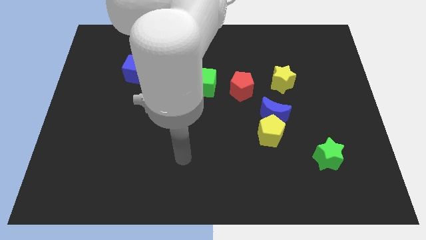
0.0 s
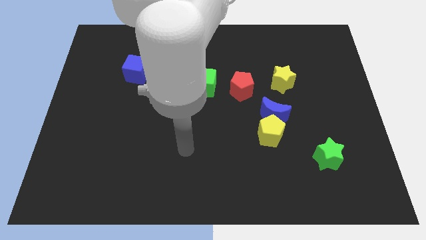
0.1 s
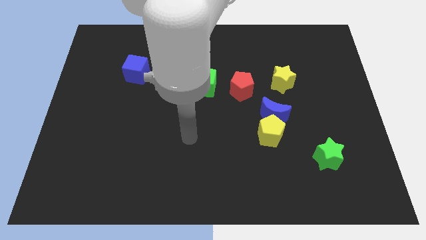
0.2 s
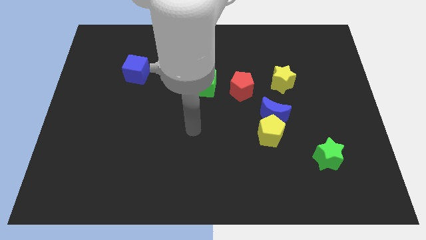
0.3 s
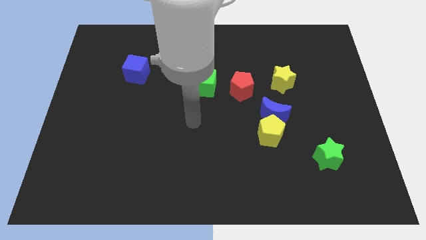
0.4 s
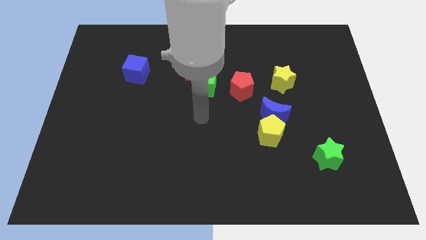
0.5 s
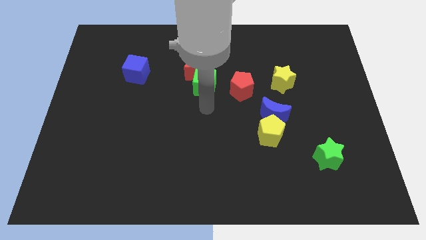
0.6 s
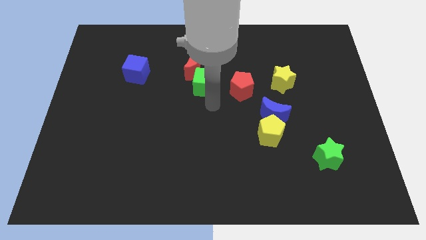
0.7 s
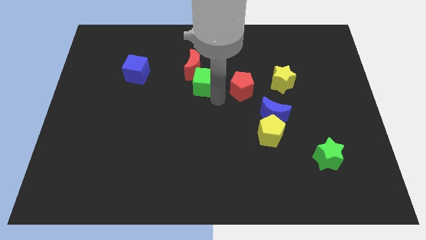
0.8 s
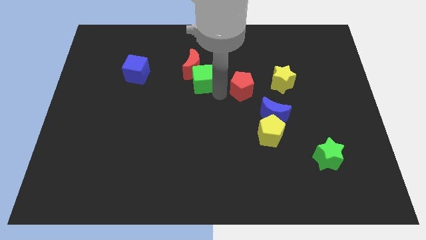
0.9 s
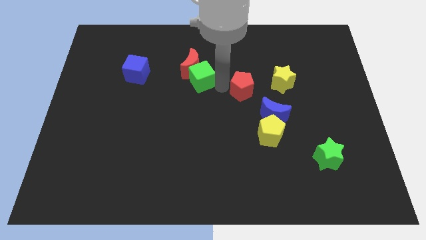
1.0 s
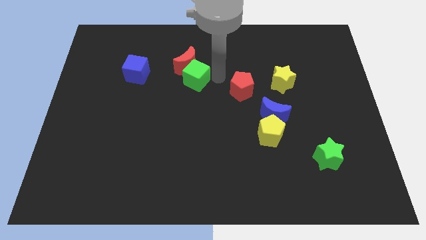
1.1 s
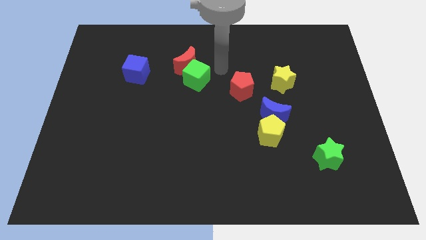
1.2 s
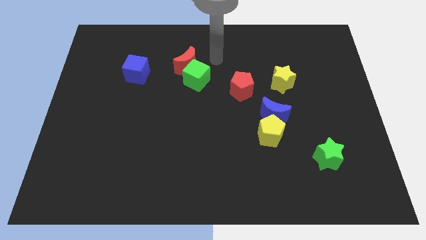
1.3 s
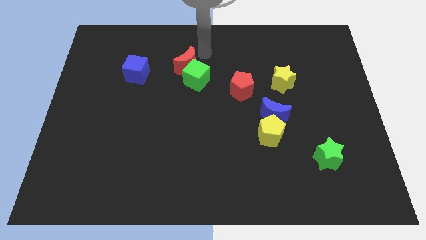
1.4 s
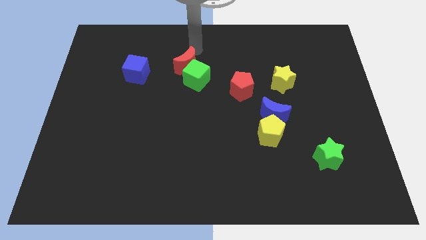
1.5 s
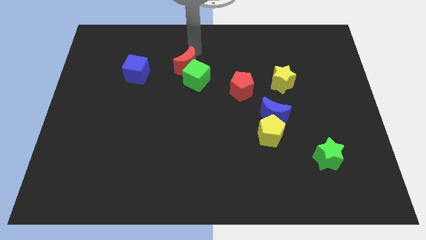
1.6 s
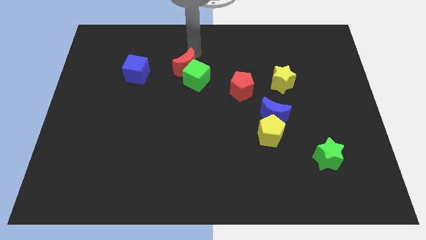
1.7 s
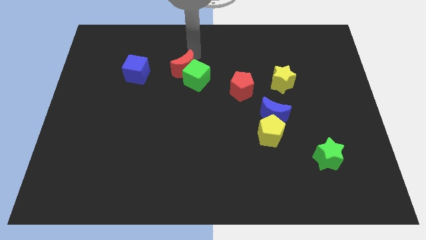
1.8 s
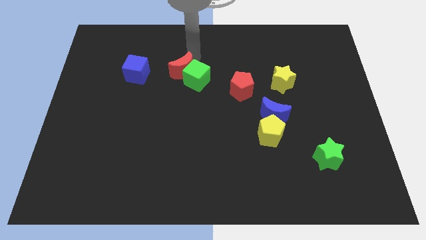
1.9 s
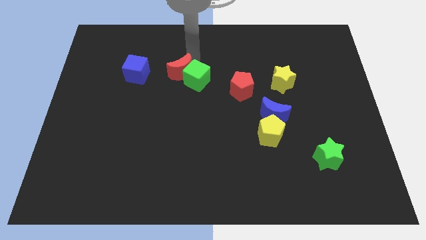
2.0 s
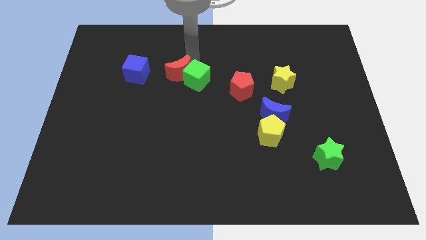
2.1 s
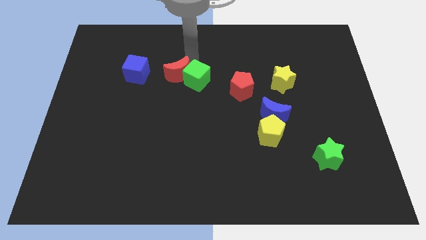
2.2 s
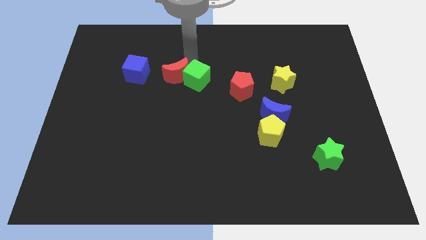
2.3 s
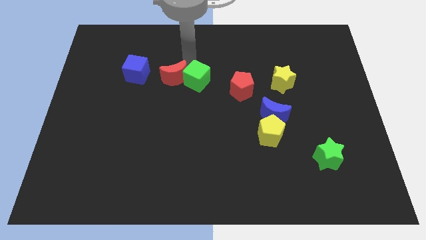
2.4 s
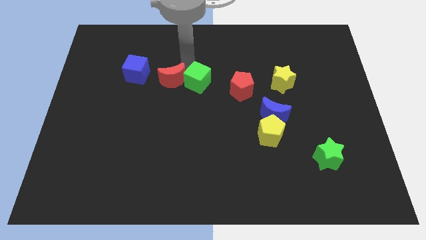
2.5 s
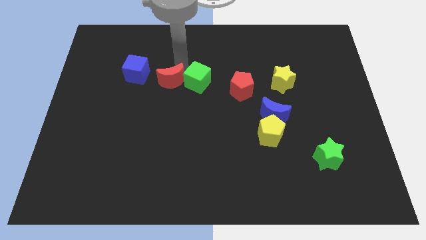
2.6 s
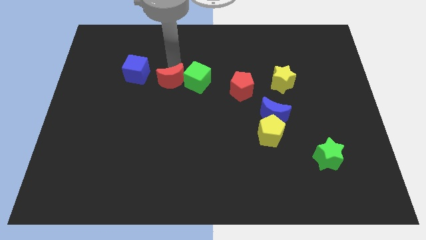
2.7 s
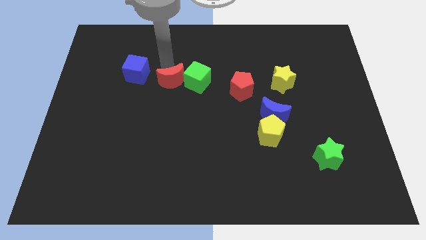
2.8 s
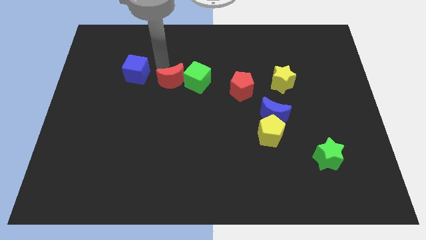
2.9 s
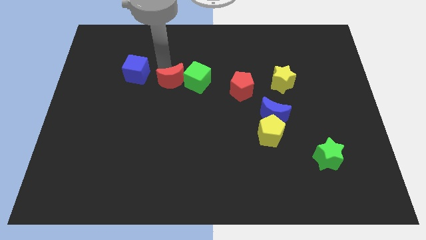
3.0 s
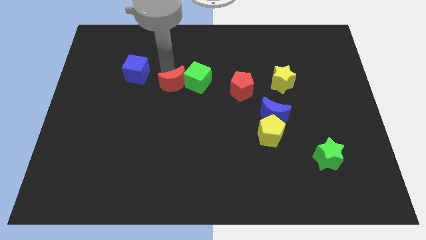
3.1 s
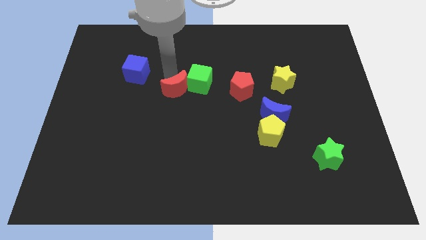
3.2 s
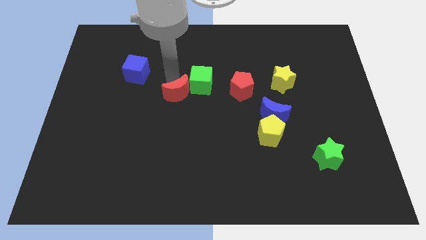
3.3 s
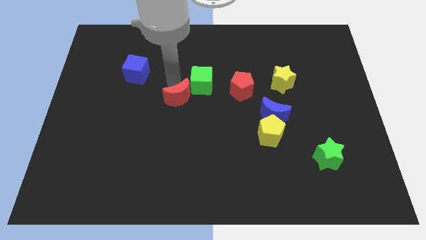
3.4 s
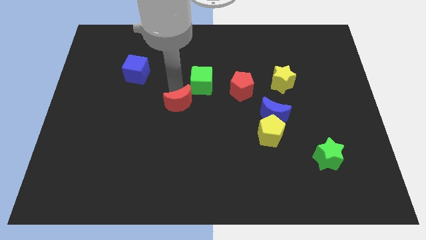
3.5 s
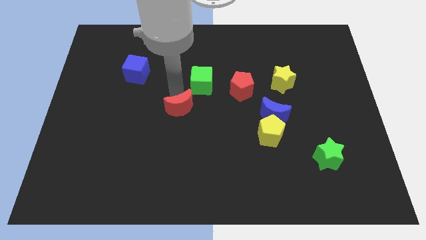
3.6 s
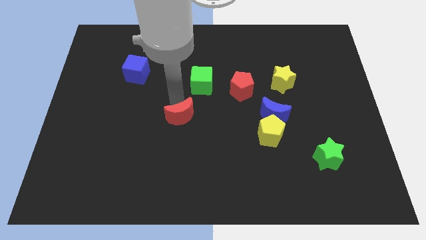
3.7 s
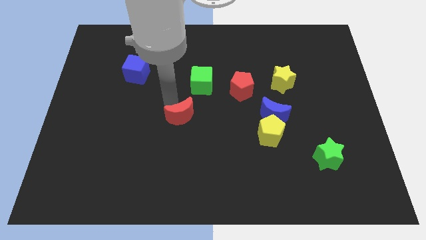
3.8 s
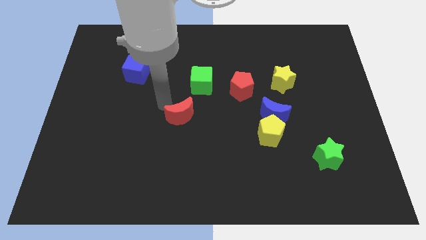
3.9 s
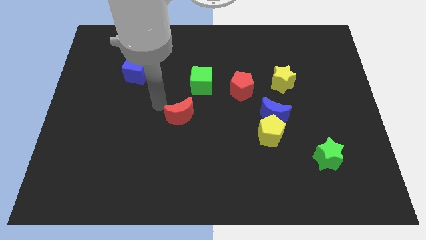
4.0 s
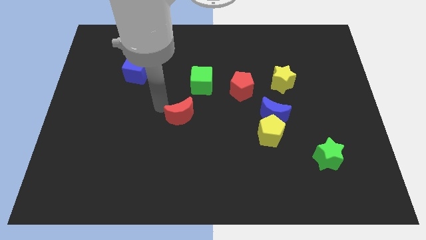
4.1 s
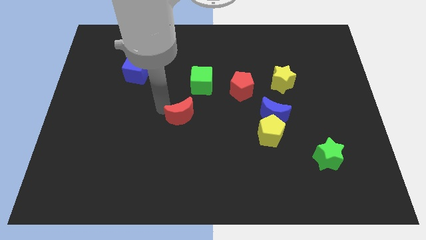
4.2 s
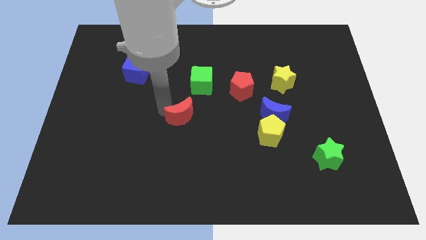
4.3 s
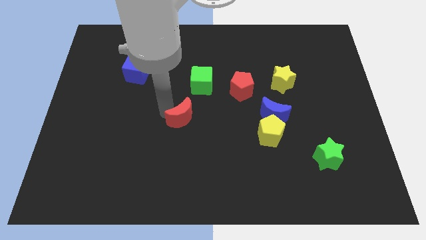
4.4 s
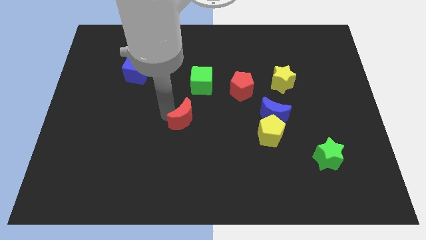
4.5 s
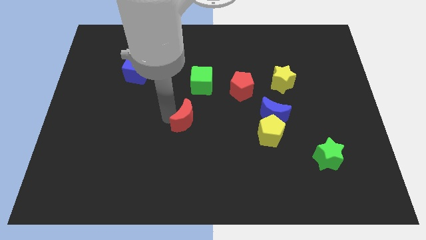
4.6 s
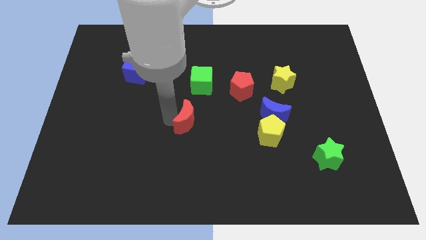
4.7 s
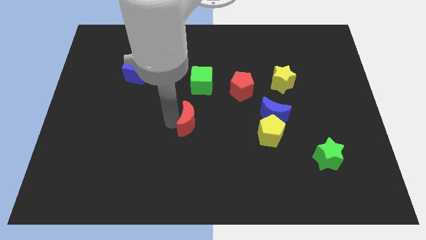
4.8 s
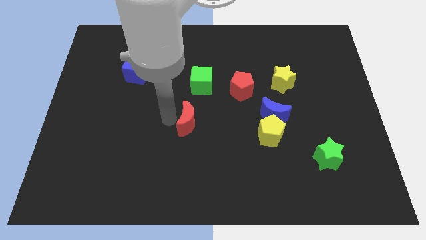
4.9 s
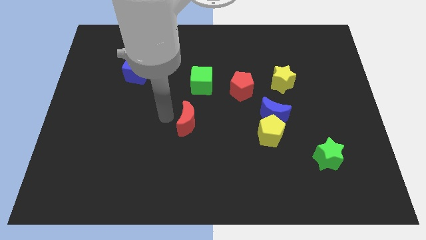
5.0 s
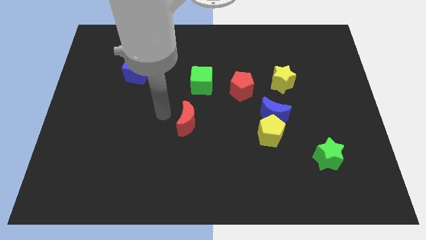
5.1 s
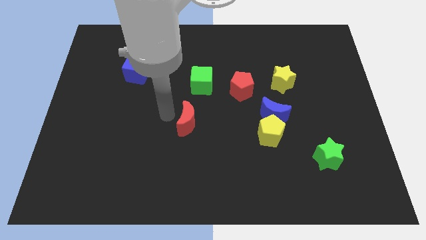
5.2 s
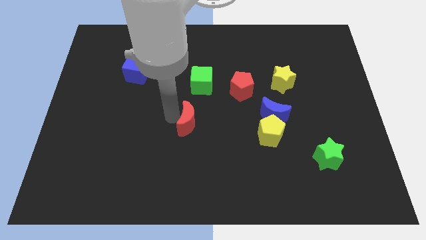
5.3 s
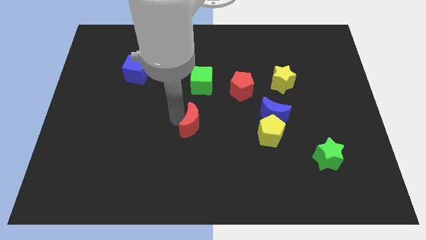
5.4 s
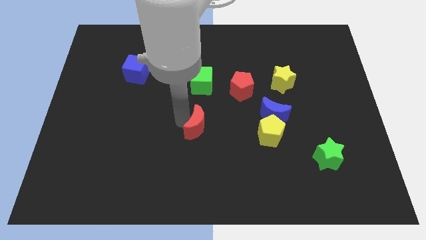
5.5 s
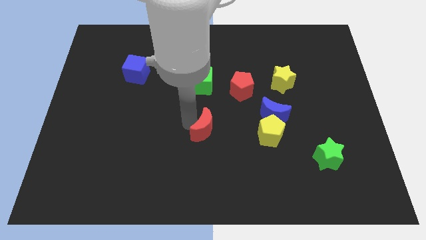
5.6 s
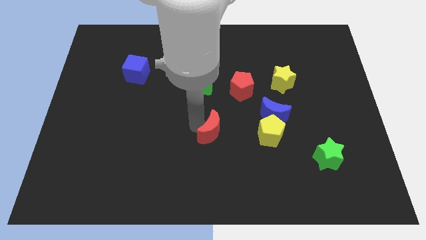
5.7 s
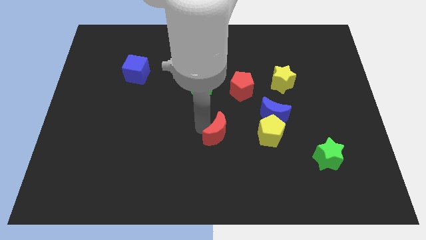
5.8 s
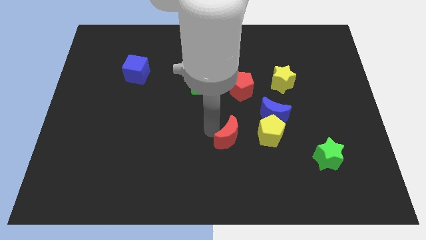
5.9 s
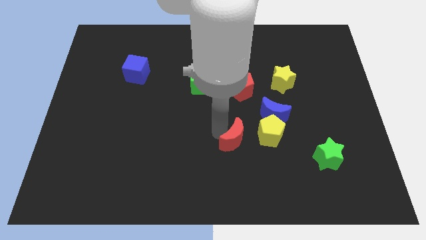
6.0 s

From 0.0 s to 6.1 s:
slide the red moon to the bottom left side of the yellow pentagon
